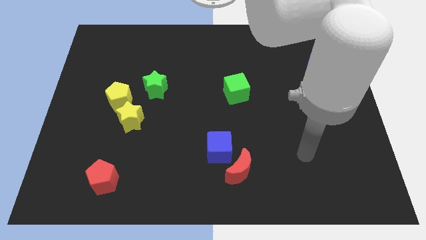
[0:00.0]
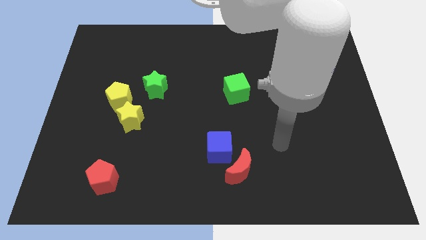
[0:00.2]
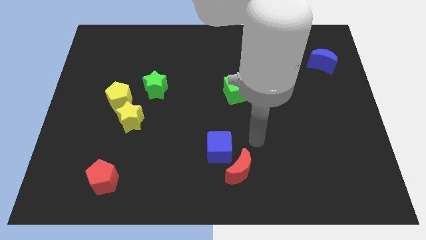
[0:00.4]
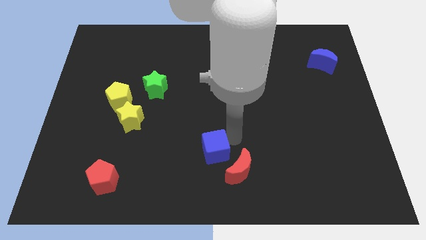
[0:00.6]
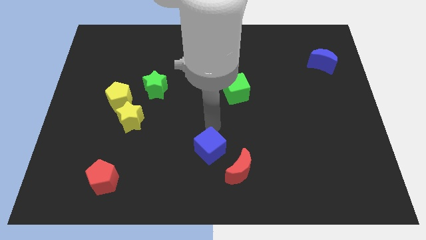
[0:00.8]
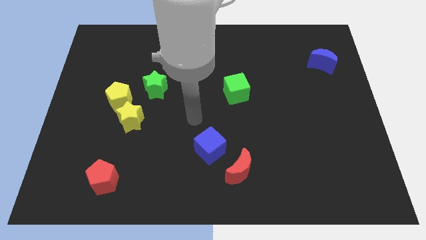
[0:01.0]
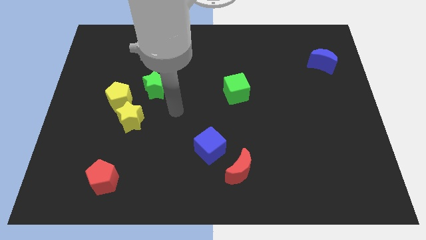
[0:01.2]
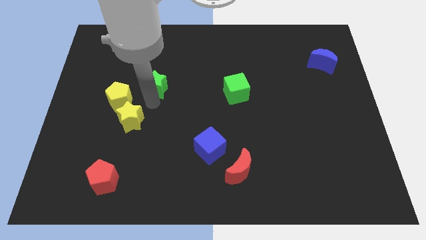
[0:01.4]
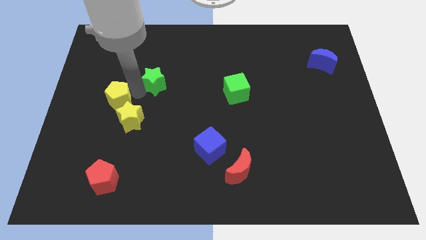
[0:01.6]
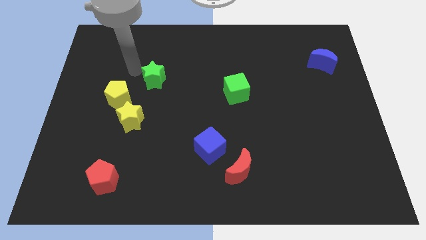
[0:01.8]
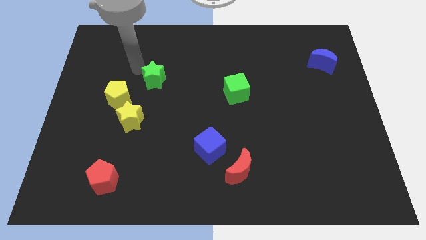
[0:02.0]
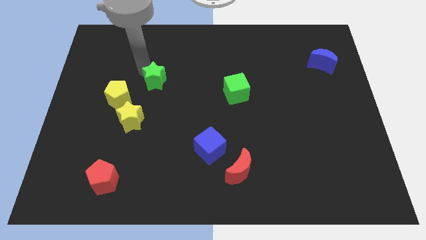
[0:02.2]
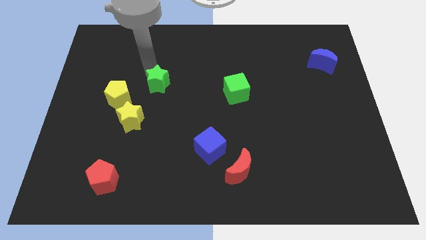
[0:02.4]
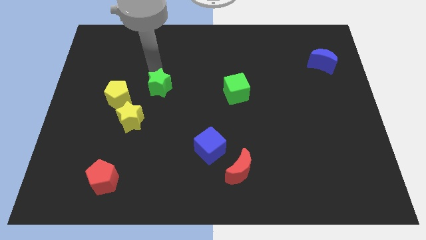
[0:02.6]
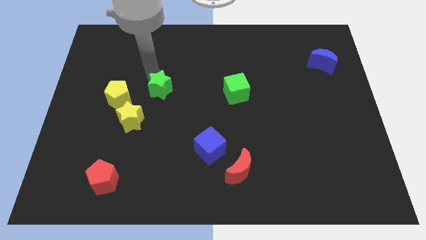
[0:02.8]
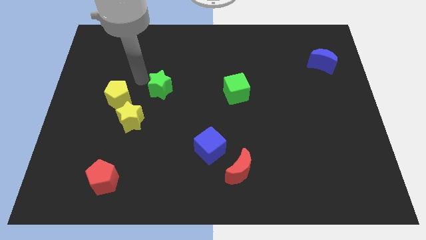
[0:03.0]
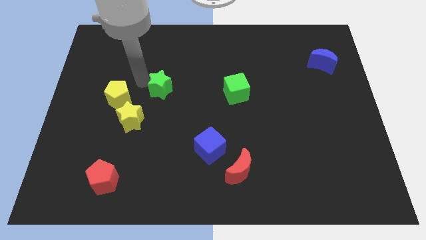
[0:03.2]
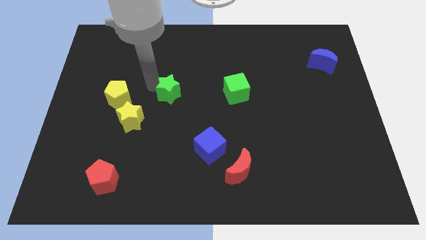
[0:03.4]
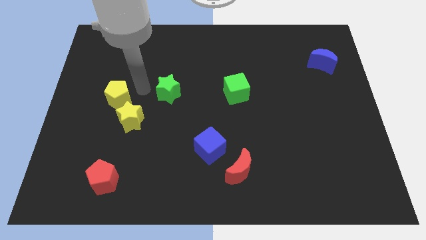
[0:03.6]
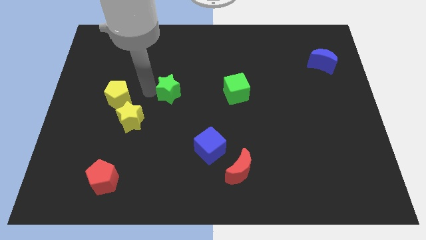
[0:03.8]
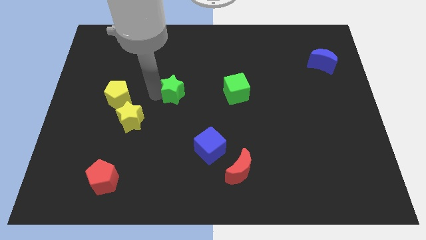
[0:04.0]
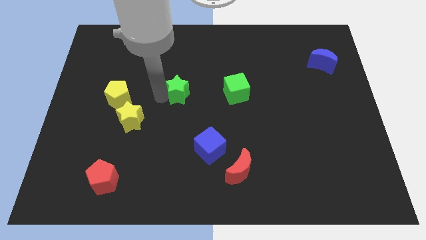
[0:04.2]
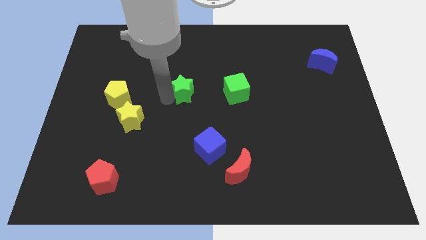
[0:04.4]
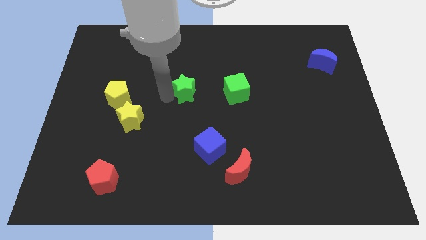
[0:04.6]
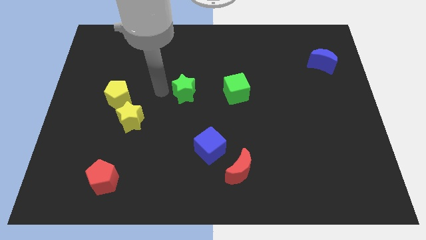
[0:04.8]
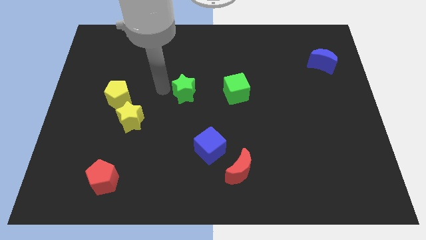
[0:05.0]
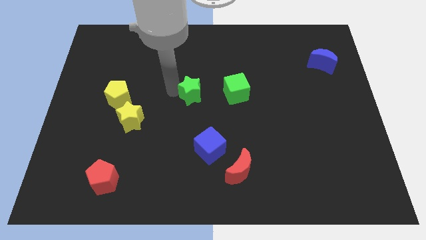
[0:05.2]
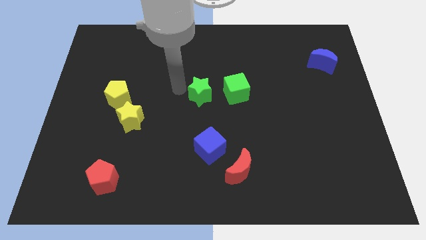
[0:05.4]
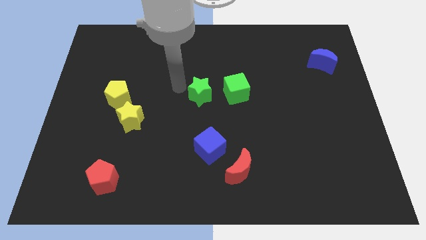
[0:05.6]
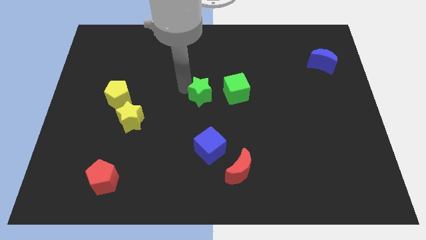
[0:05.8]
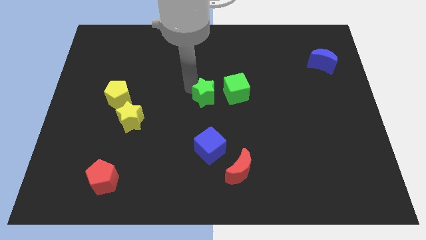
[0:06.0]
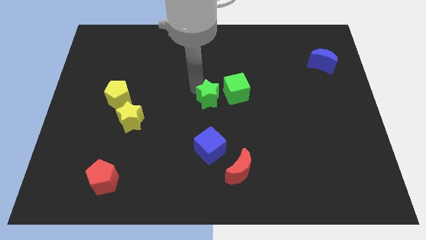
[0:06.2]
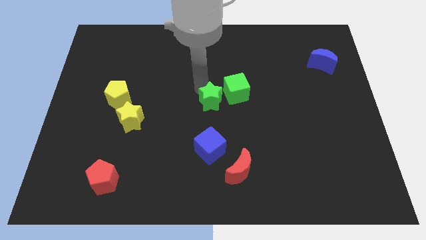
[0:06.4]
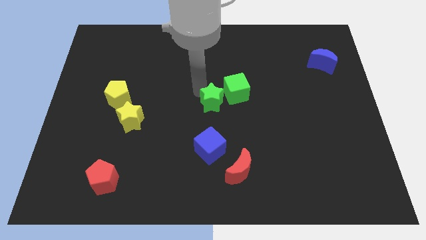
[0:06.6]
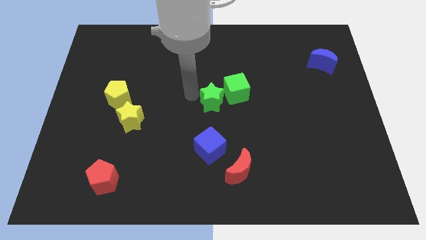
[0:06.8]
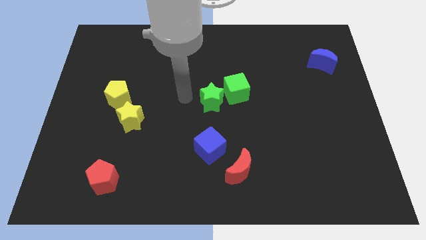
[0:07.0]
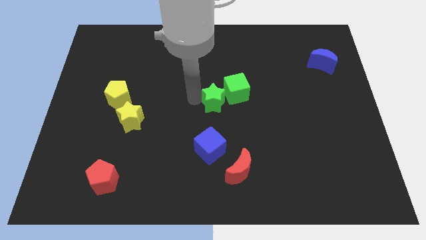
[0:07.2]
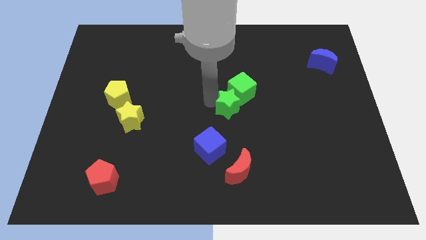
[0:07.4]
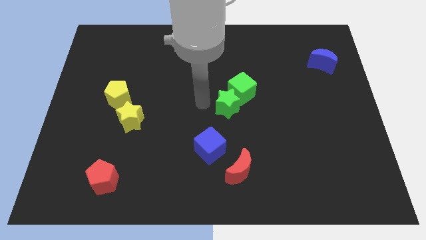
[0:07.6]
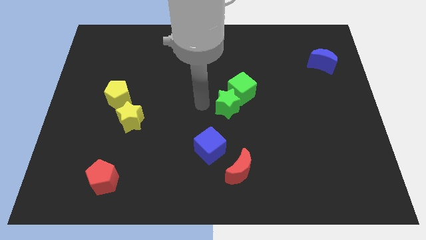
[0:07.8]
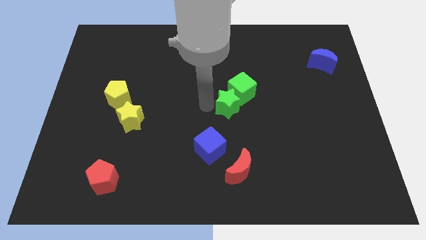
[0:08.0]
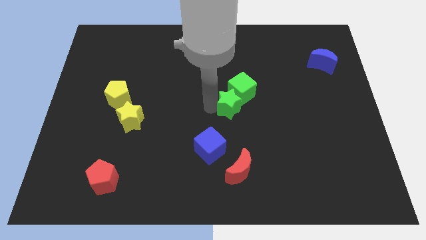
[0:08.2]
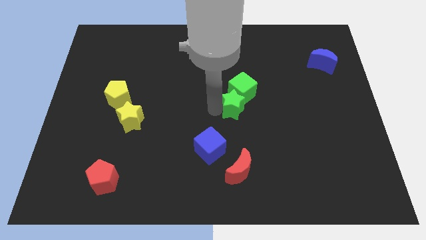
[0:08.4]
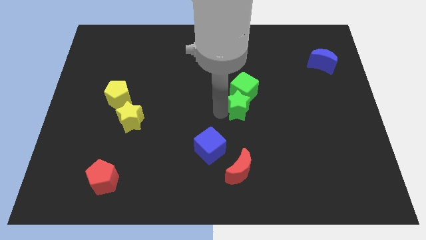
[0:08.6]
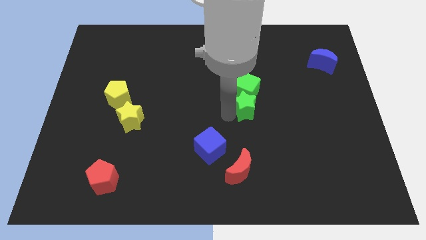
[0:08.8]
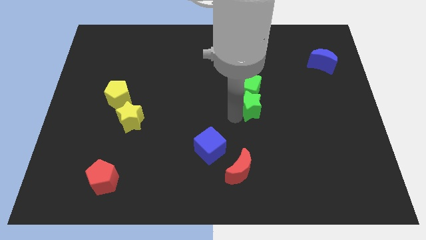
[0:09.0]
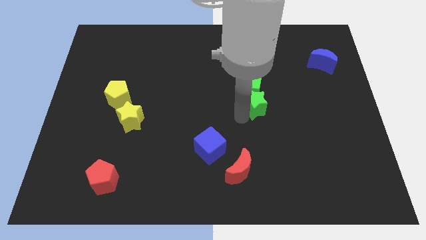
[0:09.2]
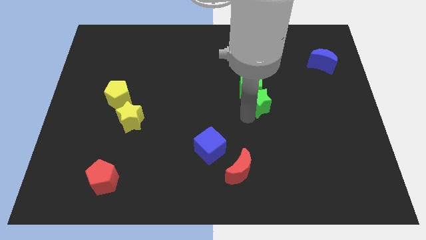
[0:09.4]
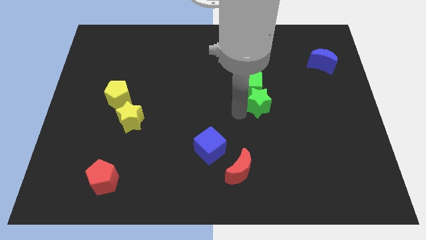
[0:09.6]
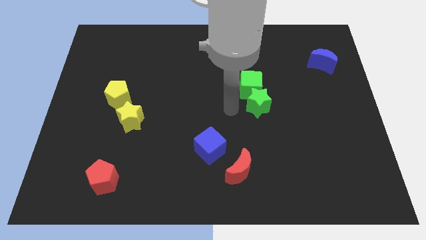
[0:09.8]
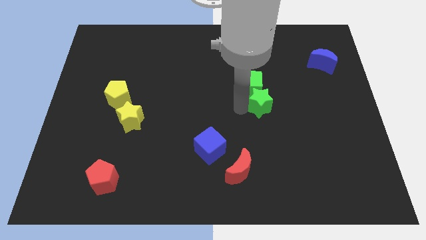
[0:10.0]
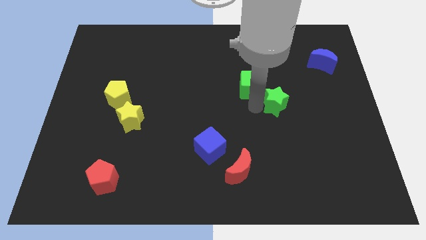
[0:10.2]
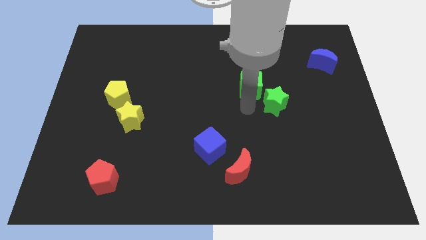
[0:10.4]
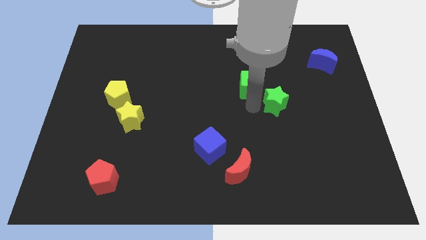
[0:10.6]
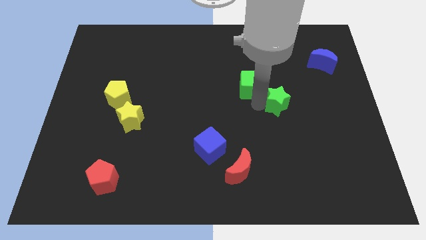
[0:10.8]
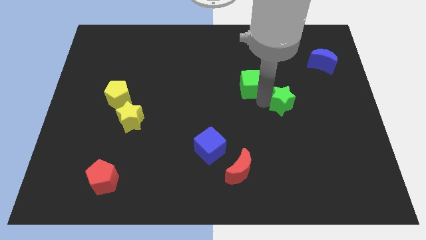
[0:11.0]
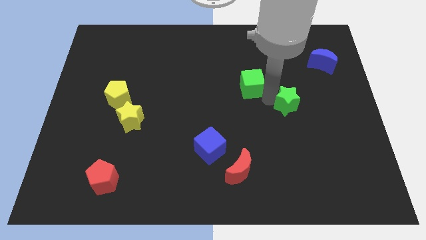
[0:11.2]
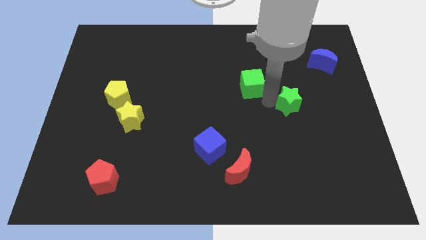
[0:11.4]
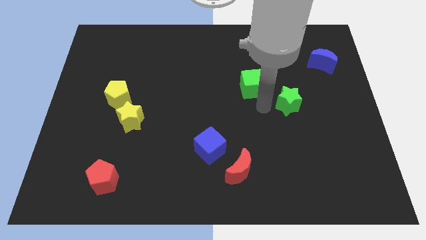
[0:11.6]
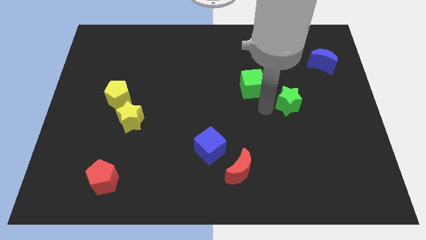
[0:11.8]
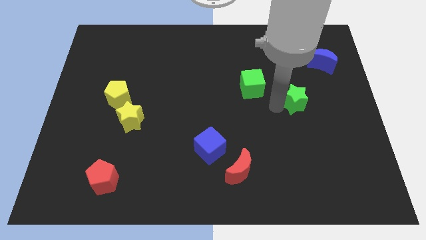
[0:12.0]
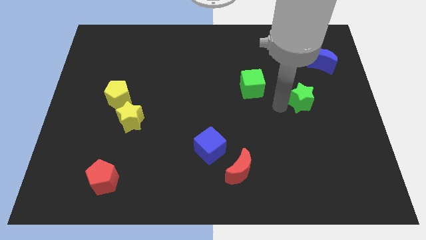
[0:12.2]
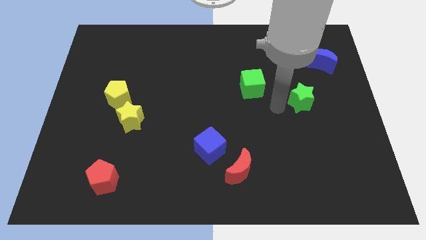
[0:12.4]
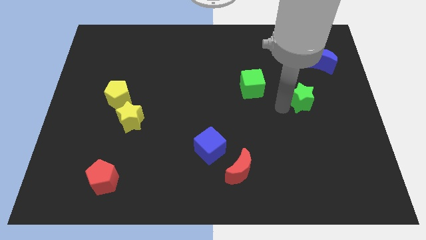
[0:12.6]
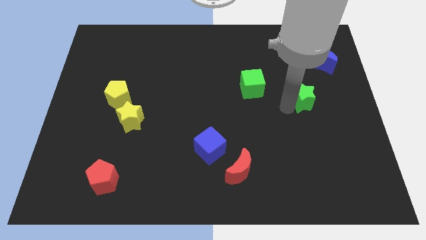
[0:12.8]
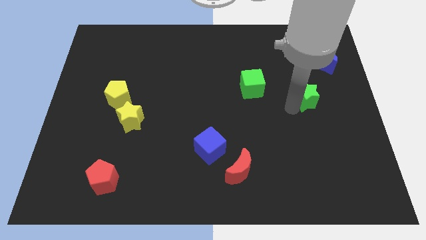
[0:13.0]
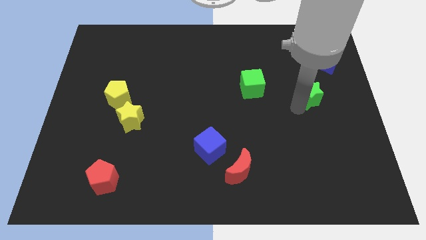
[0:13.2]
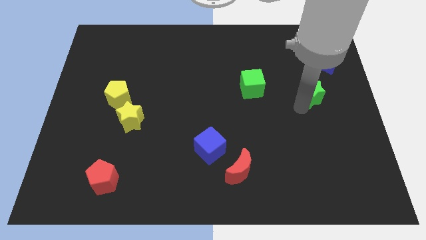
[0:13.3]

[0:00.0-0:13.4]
put the green star below the blue moon
